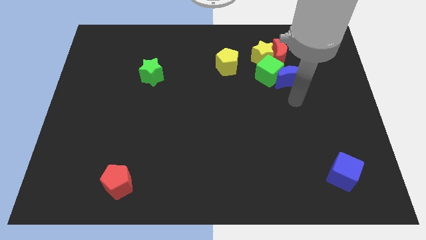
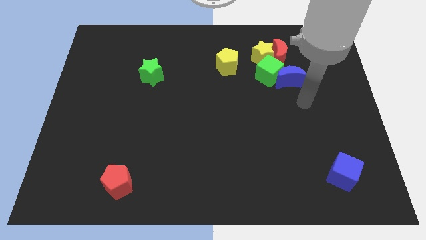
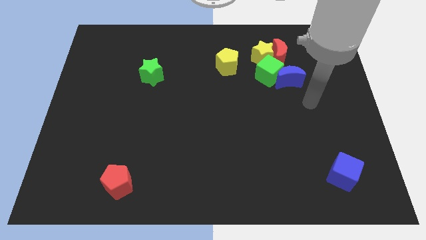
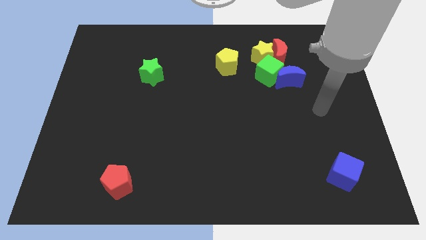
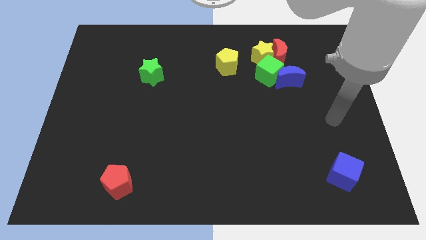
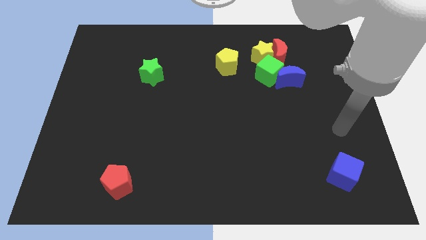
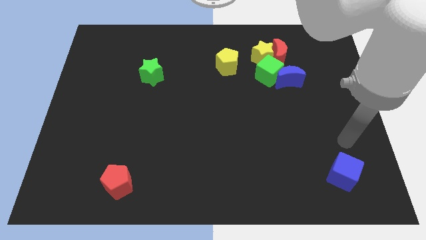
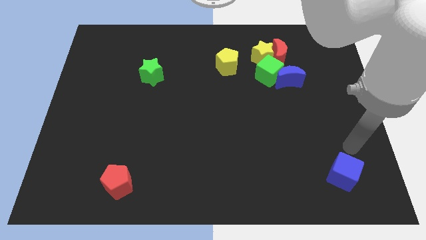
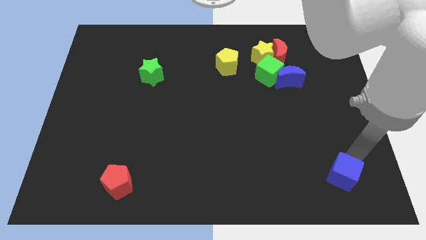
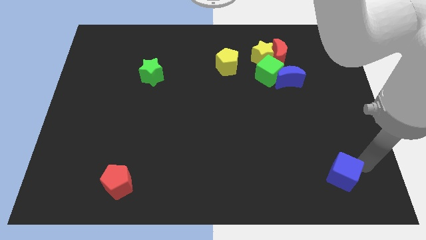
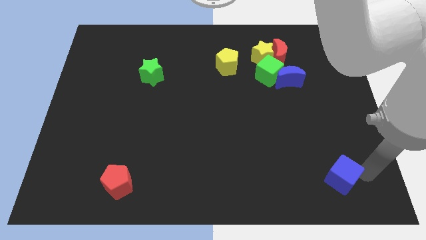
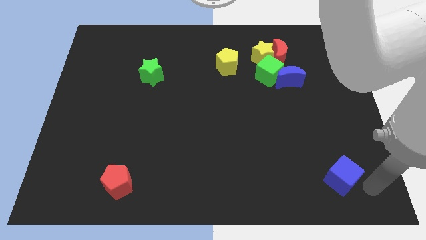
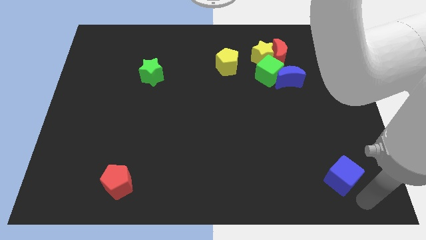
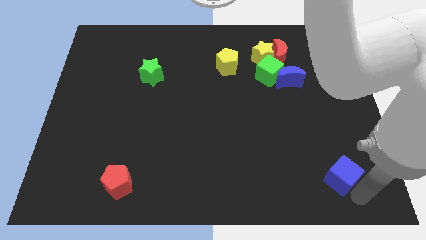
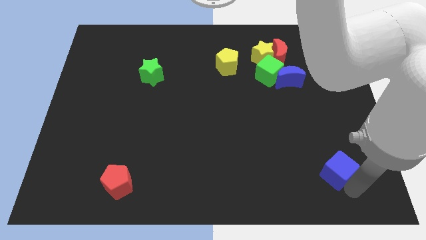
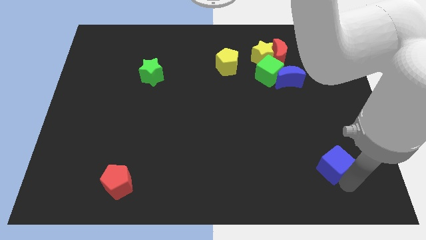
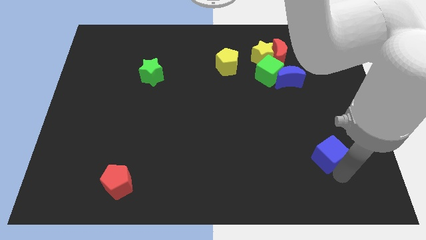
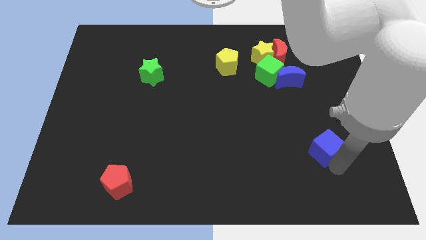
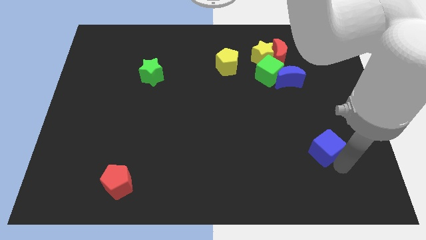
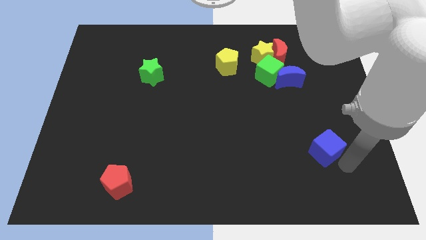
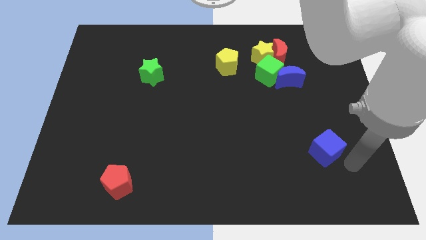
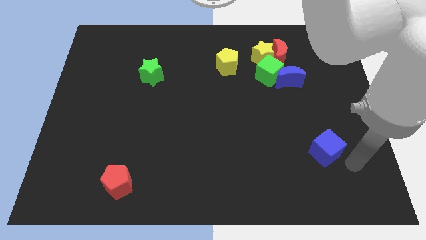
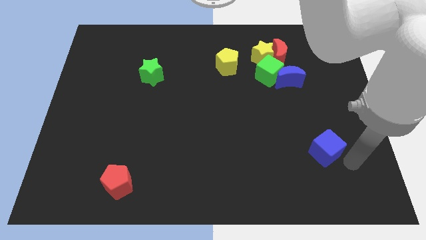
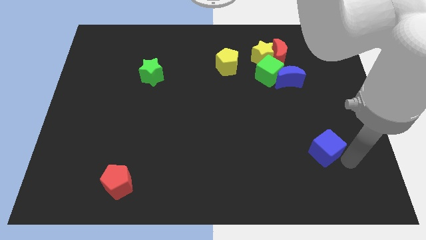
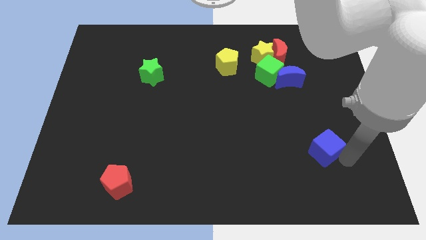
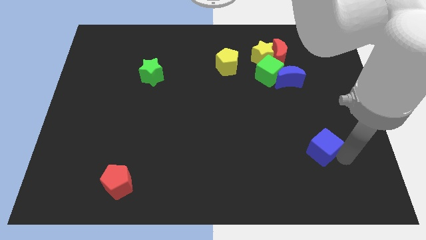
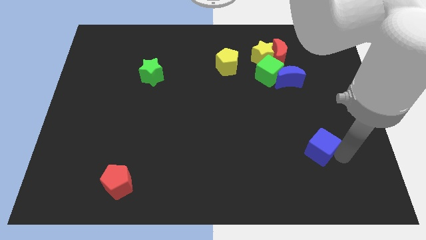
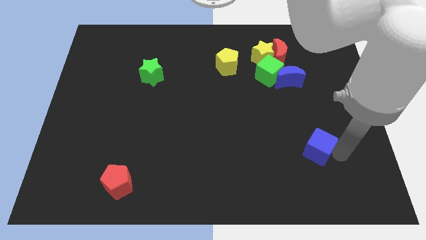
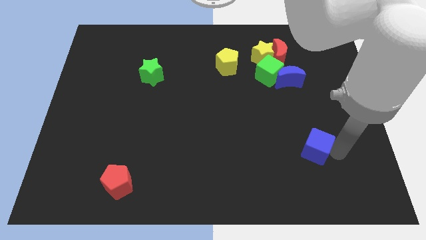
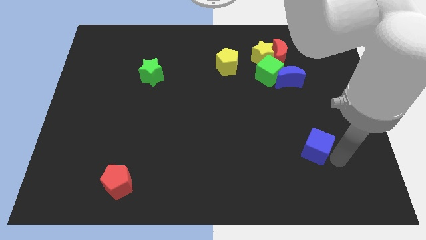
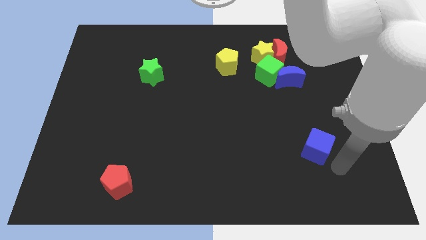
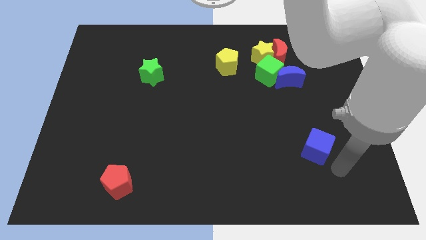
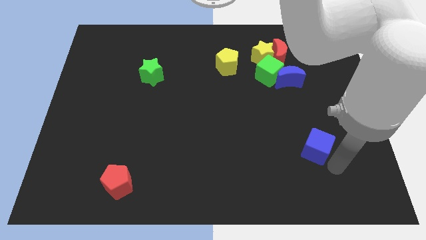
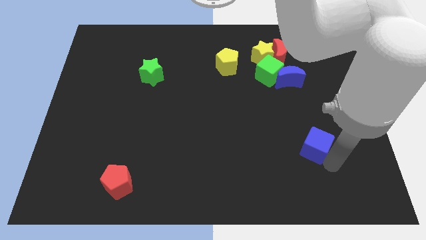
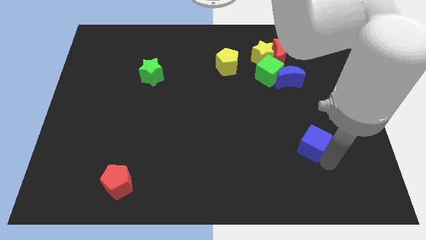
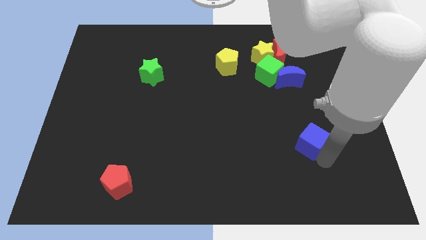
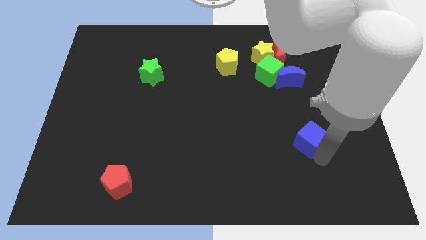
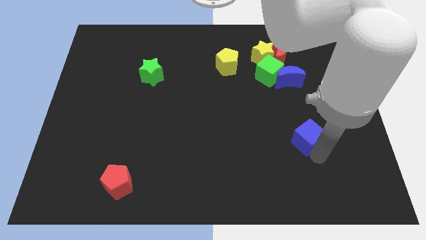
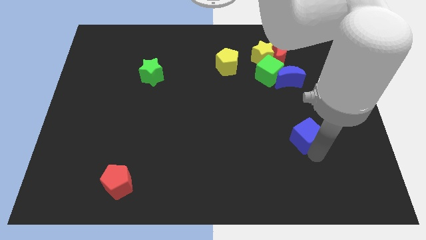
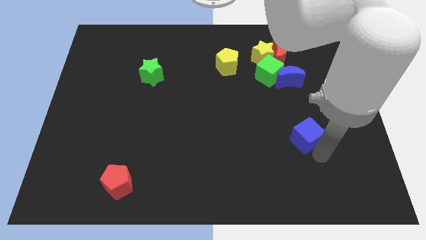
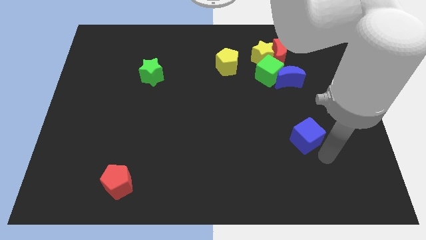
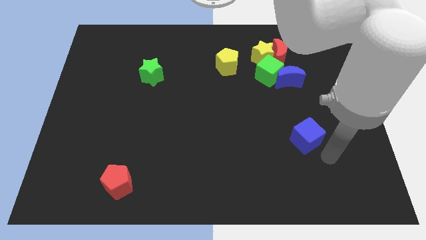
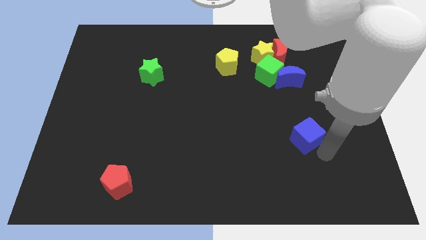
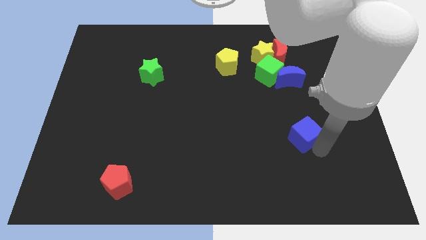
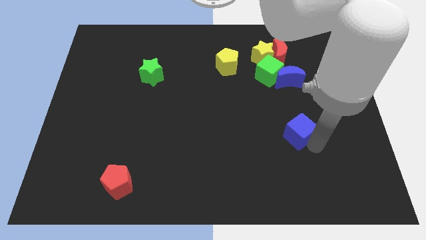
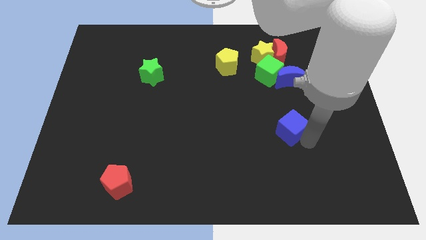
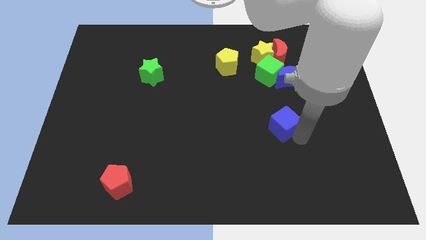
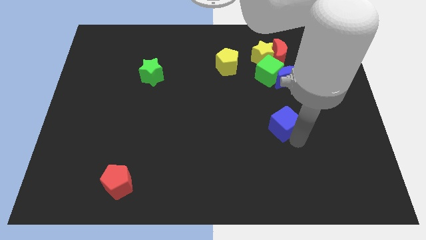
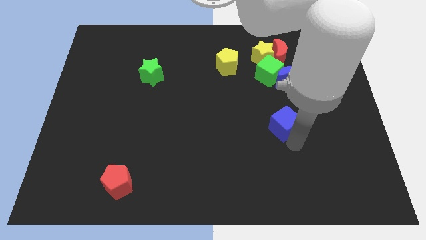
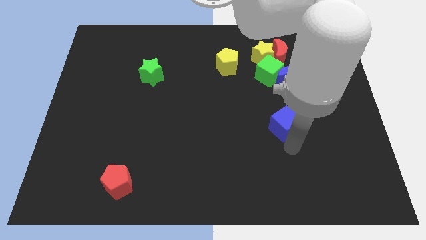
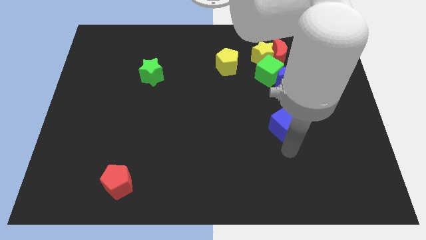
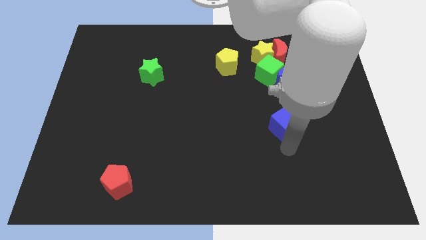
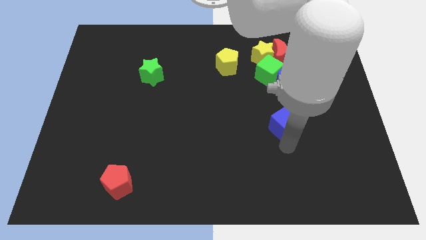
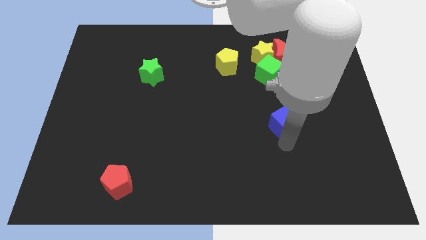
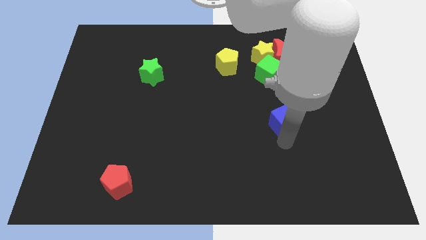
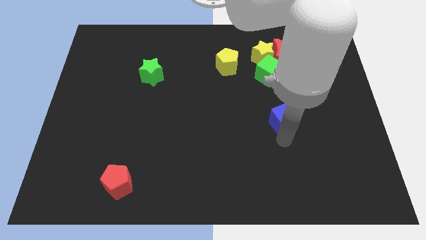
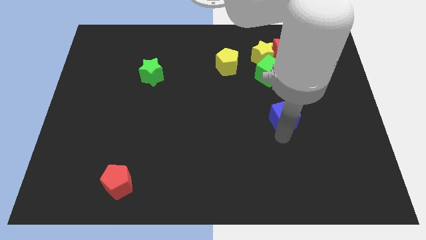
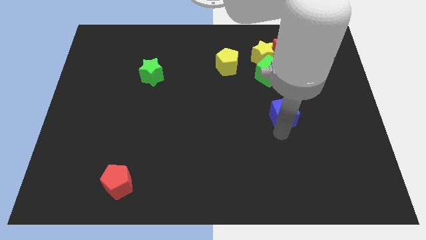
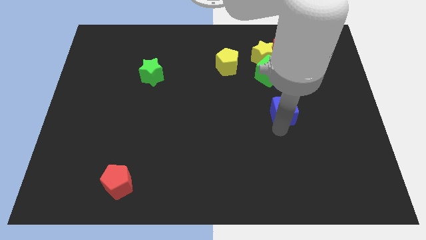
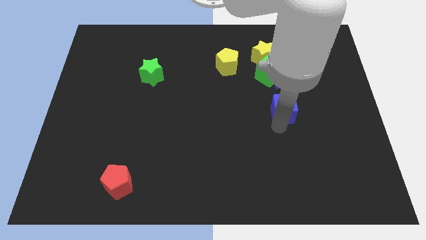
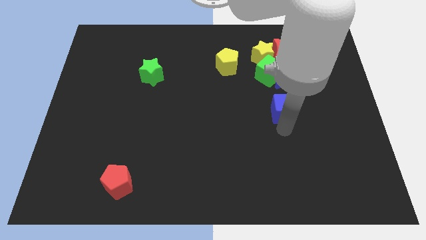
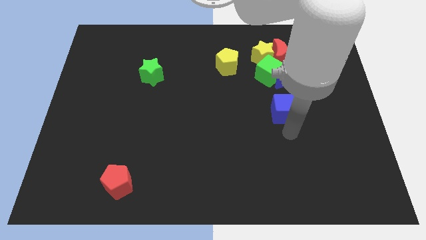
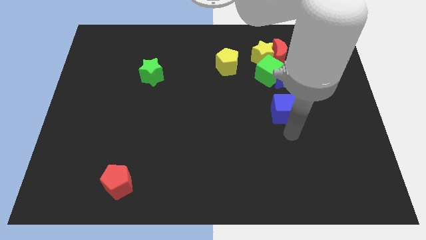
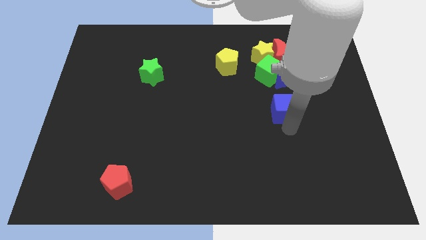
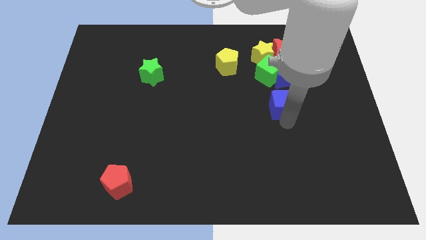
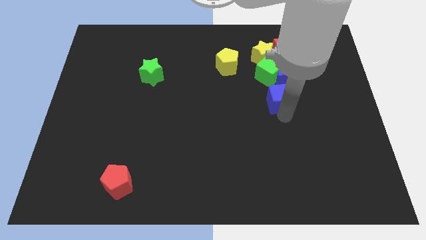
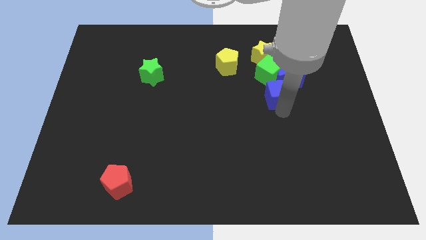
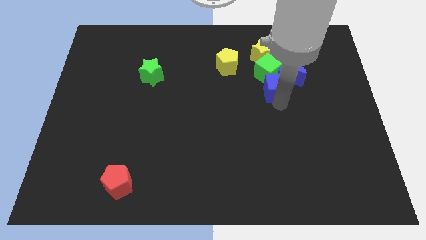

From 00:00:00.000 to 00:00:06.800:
push the blue cube to the green cube
